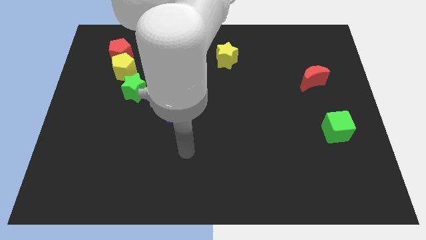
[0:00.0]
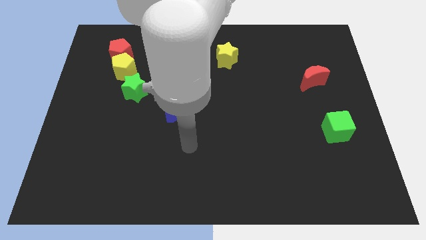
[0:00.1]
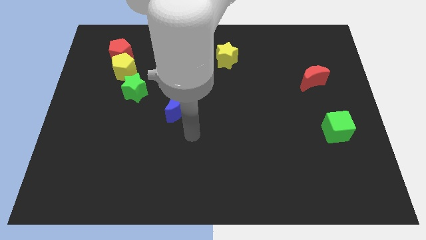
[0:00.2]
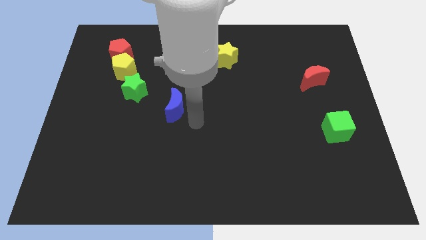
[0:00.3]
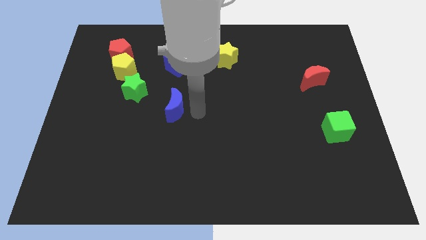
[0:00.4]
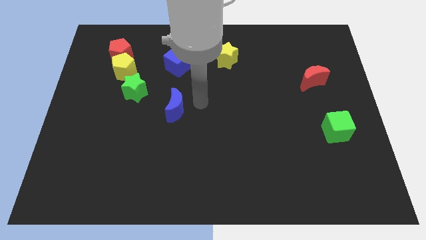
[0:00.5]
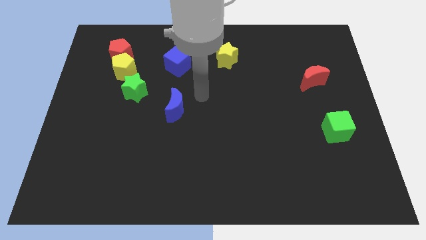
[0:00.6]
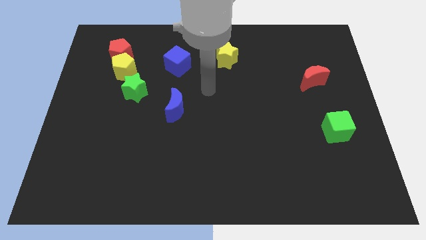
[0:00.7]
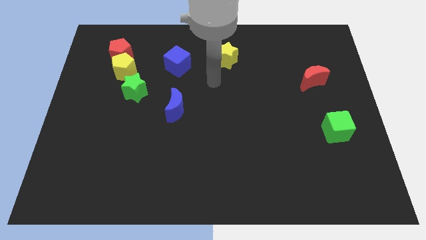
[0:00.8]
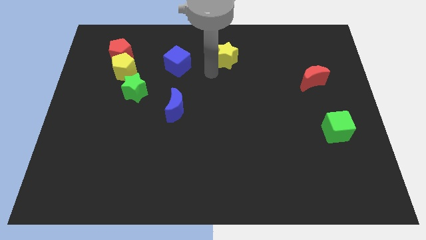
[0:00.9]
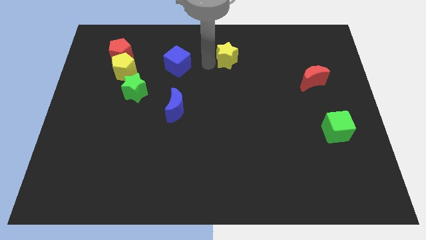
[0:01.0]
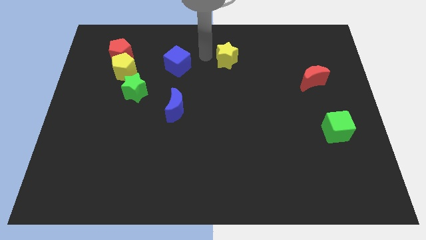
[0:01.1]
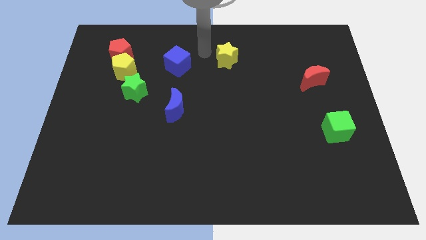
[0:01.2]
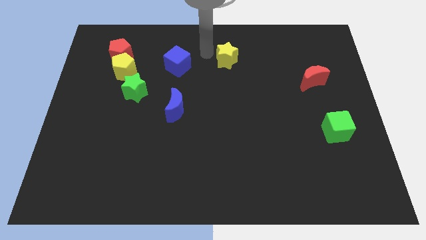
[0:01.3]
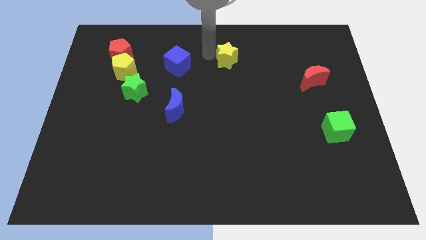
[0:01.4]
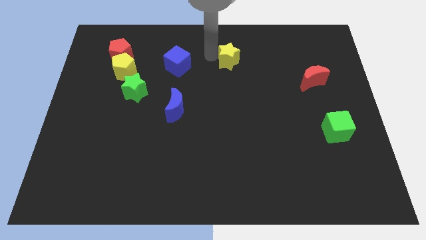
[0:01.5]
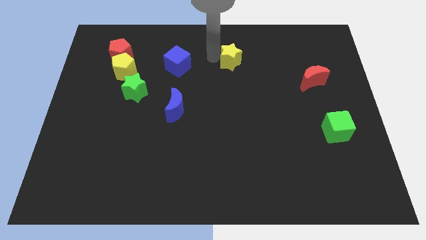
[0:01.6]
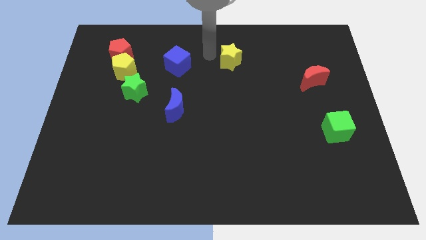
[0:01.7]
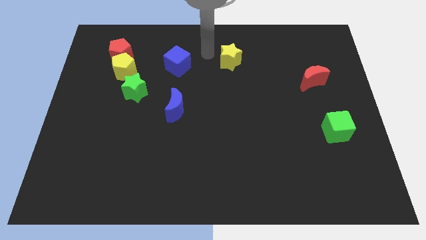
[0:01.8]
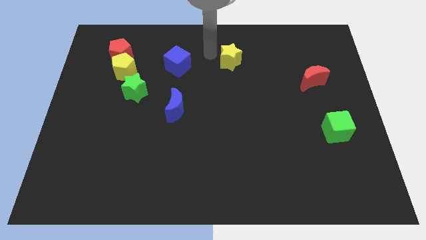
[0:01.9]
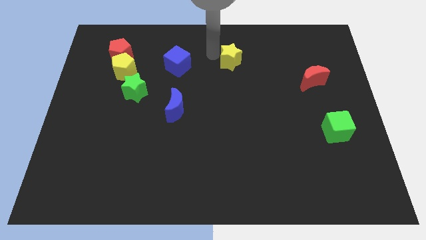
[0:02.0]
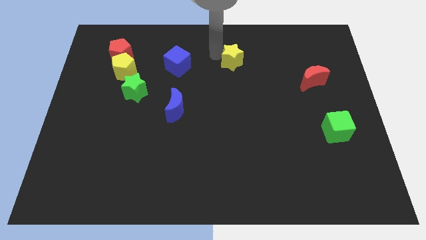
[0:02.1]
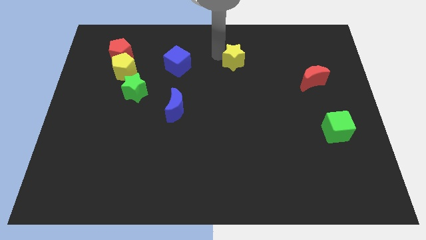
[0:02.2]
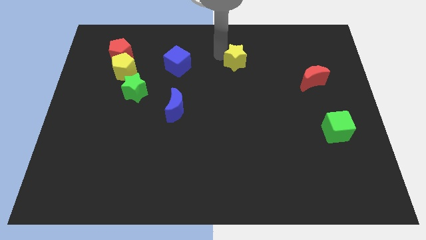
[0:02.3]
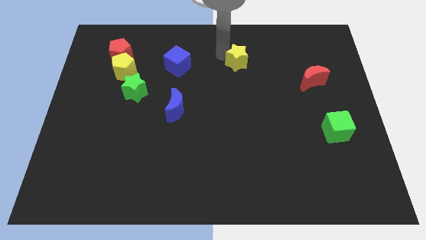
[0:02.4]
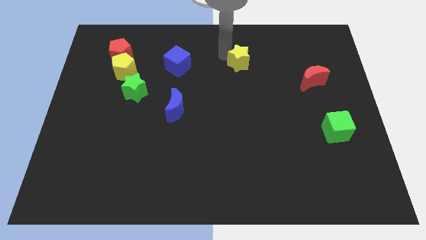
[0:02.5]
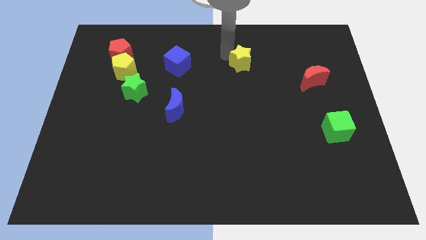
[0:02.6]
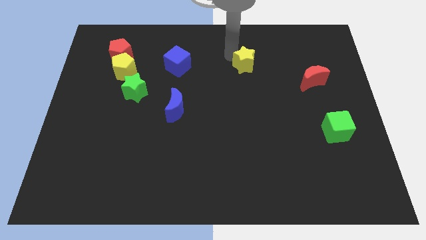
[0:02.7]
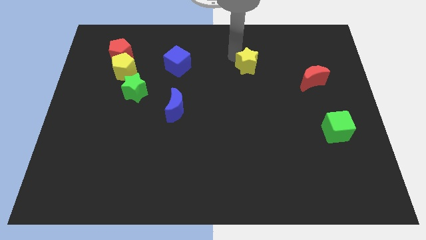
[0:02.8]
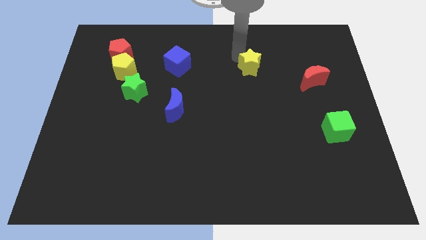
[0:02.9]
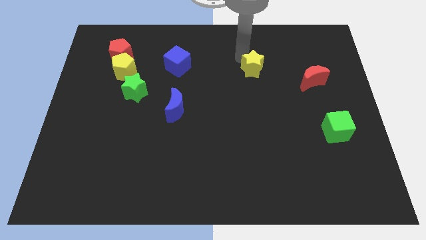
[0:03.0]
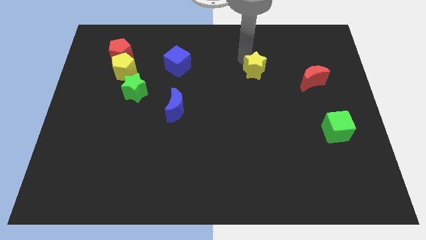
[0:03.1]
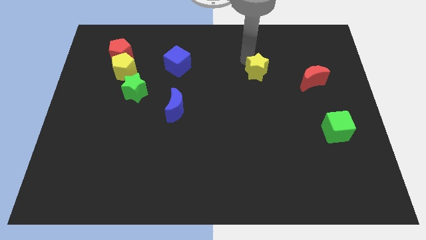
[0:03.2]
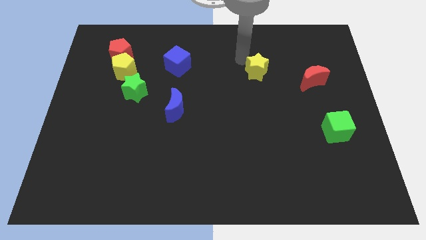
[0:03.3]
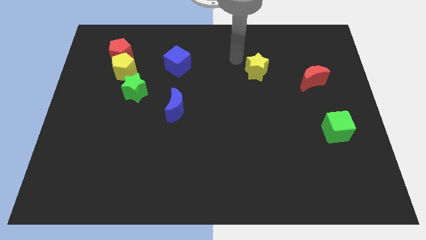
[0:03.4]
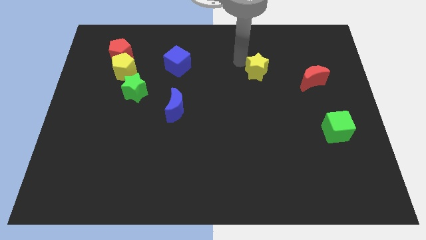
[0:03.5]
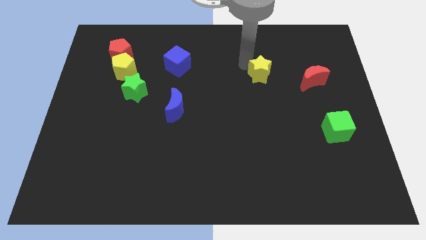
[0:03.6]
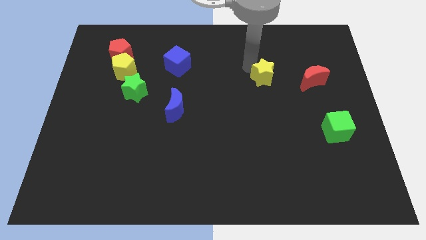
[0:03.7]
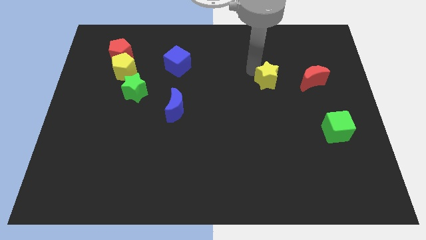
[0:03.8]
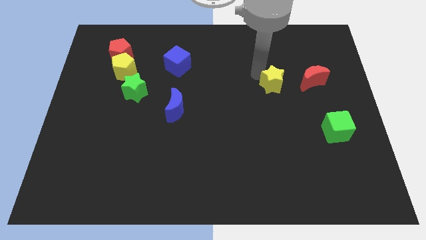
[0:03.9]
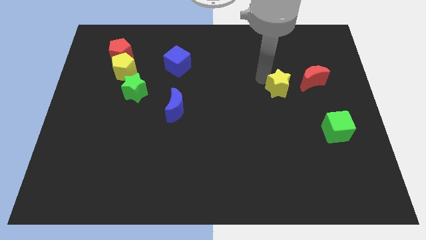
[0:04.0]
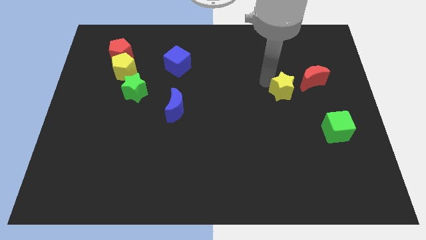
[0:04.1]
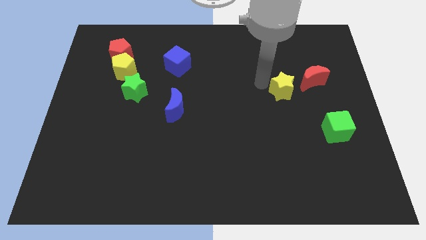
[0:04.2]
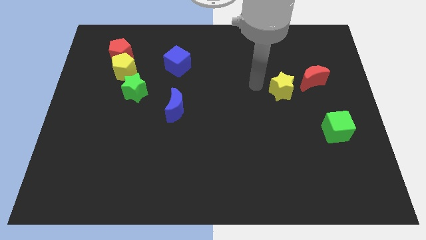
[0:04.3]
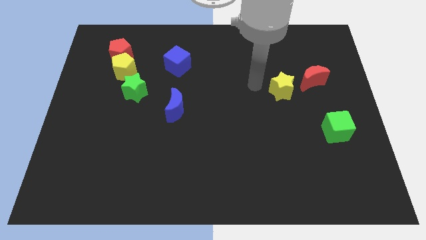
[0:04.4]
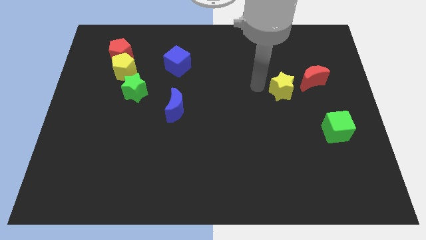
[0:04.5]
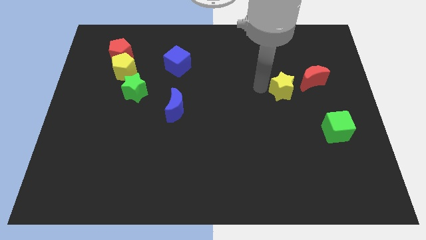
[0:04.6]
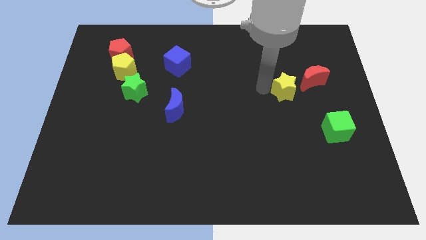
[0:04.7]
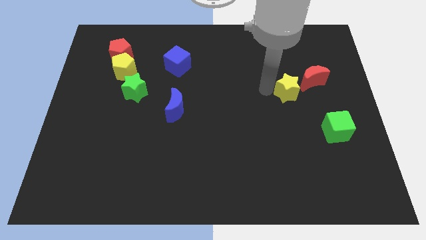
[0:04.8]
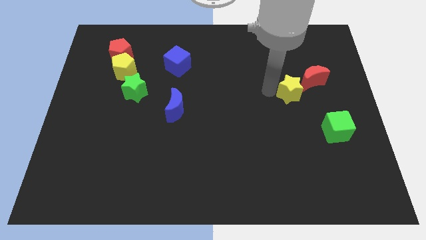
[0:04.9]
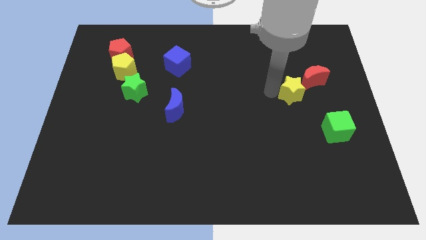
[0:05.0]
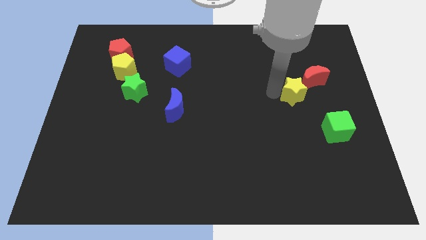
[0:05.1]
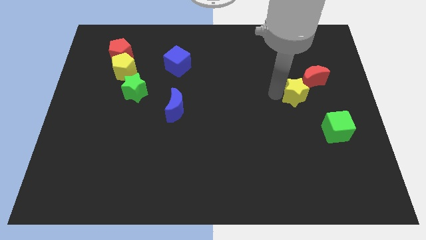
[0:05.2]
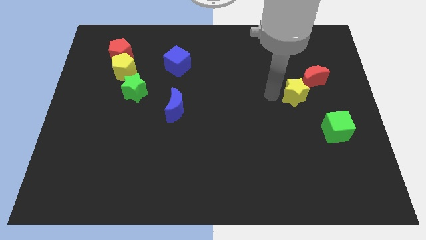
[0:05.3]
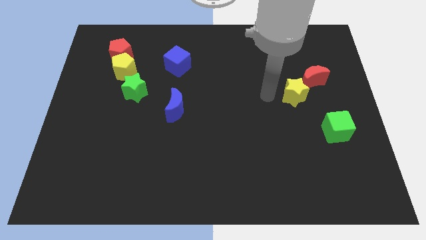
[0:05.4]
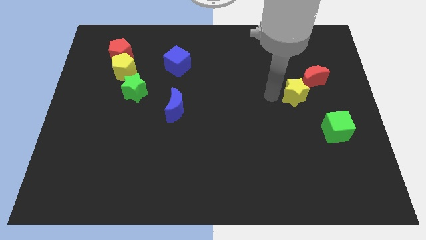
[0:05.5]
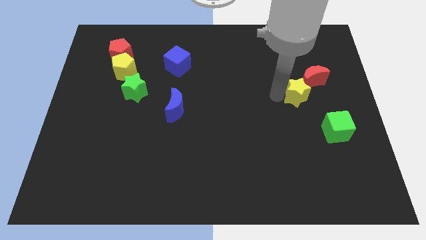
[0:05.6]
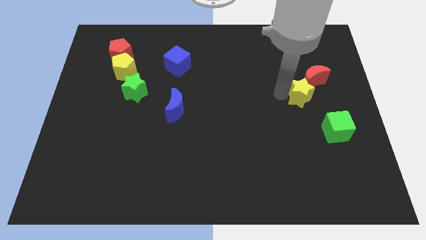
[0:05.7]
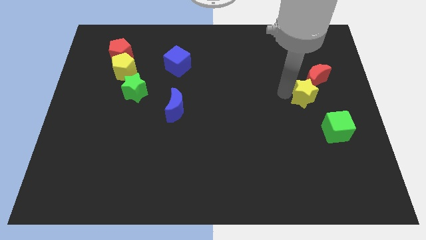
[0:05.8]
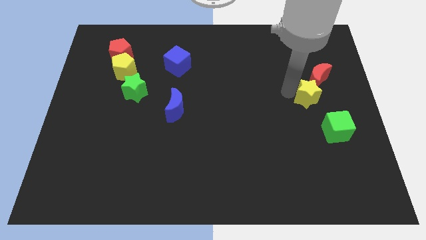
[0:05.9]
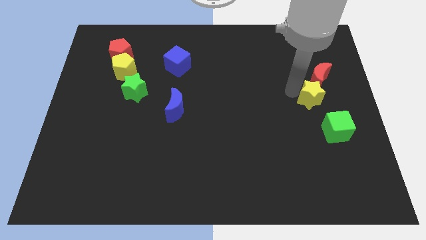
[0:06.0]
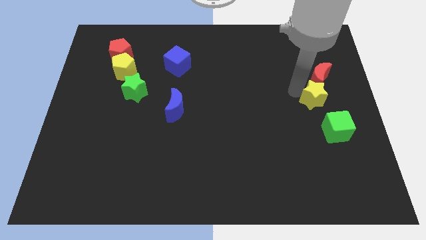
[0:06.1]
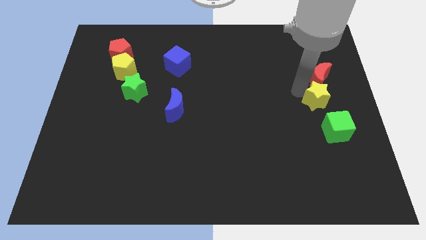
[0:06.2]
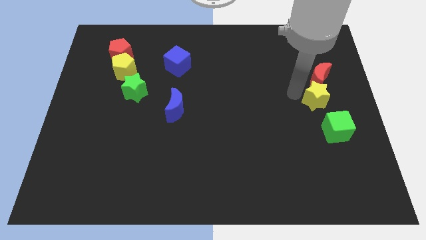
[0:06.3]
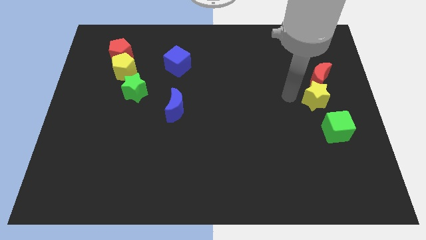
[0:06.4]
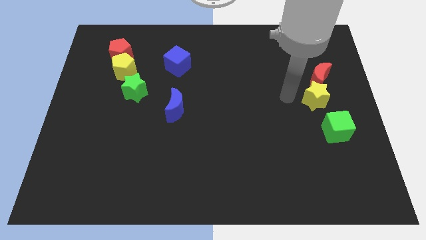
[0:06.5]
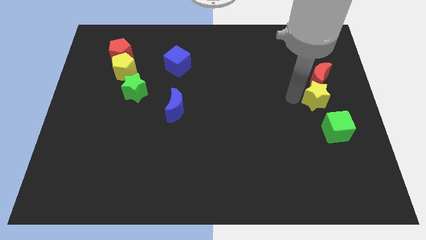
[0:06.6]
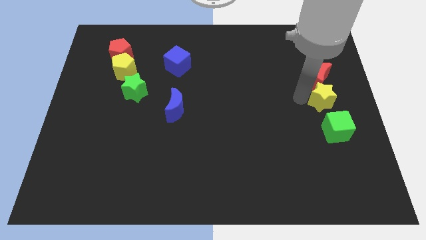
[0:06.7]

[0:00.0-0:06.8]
move the yellow star to the center right

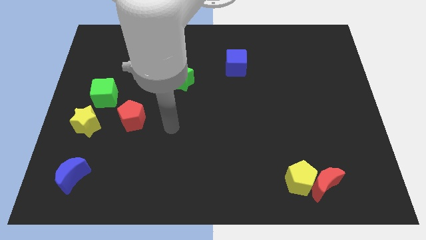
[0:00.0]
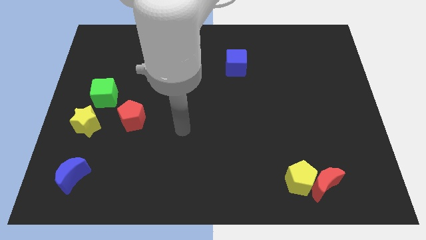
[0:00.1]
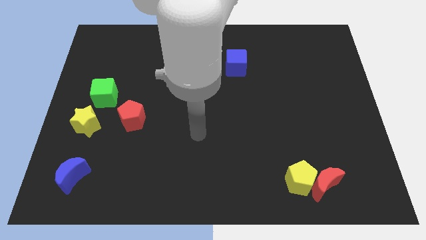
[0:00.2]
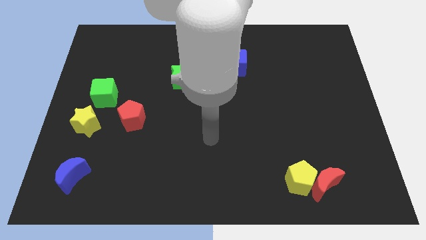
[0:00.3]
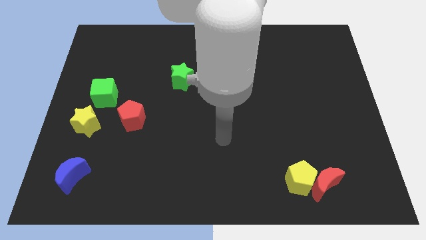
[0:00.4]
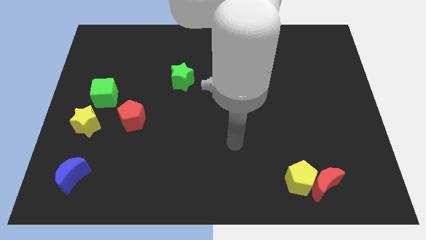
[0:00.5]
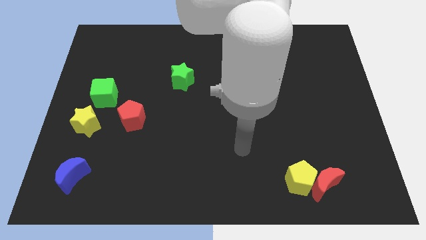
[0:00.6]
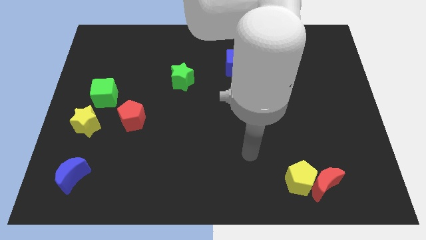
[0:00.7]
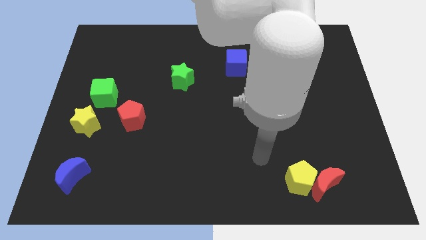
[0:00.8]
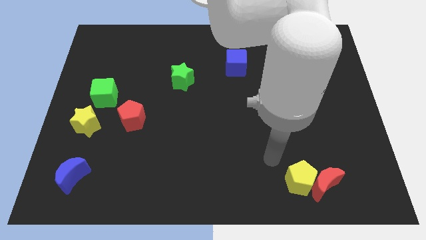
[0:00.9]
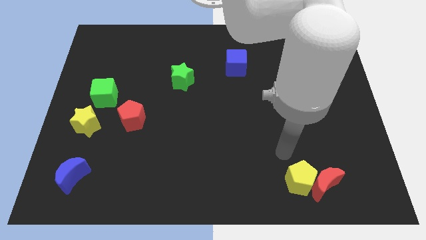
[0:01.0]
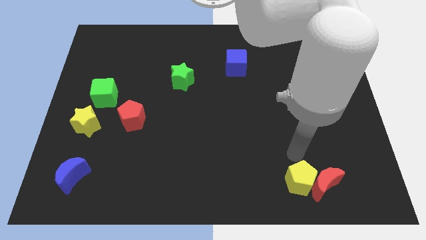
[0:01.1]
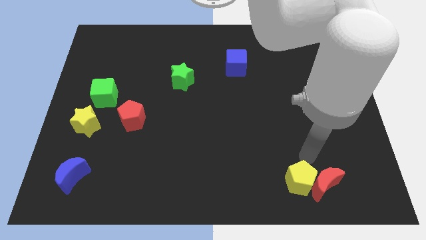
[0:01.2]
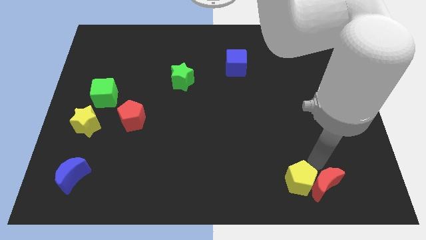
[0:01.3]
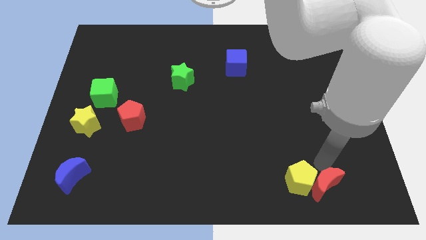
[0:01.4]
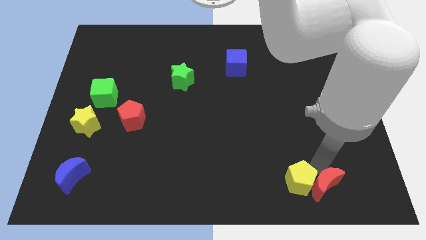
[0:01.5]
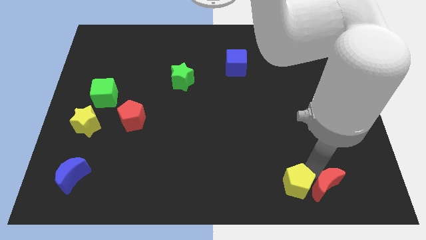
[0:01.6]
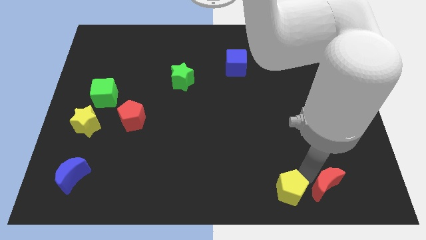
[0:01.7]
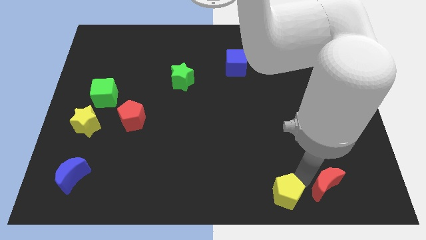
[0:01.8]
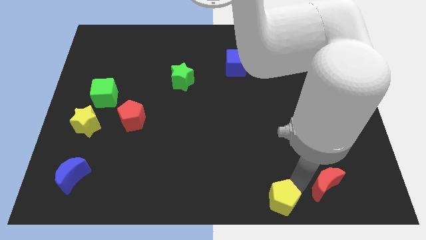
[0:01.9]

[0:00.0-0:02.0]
slide the yellow pentagon to the bottom
